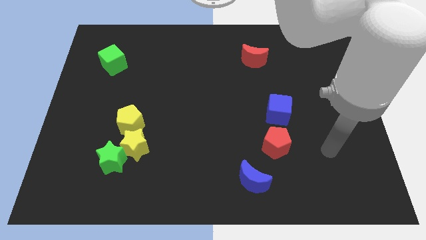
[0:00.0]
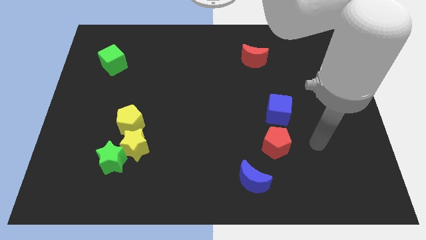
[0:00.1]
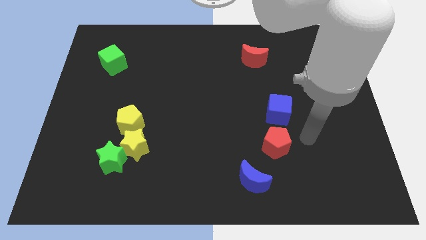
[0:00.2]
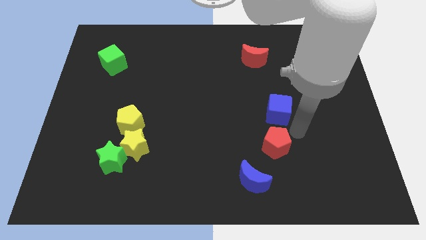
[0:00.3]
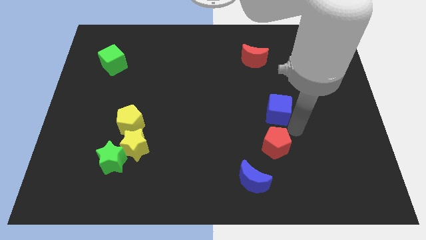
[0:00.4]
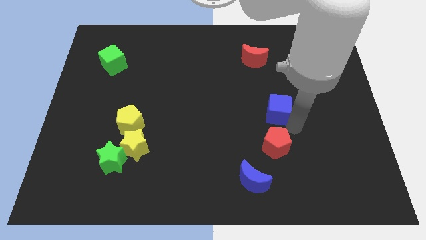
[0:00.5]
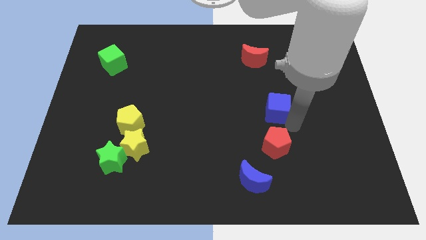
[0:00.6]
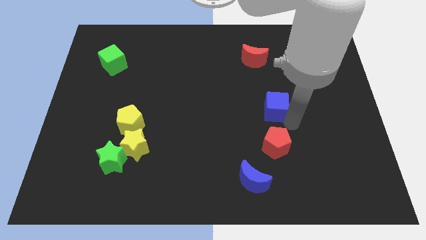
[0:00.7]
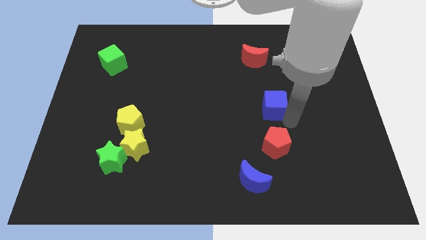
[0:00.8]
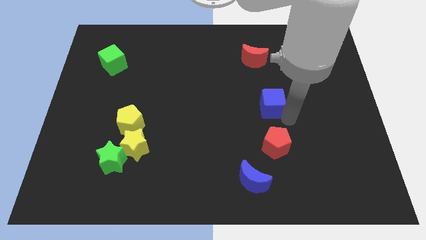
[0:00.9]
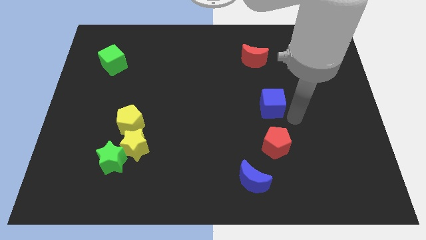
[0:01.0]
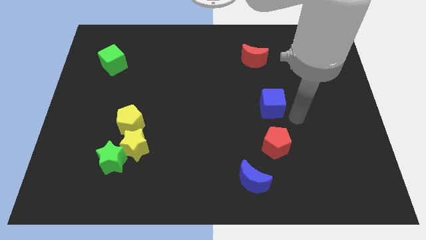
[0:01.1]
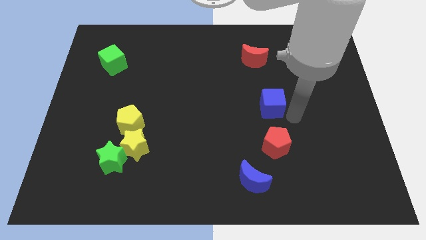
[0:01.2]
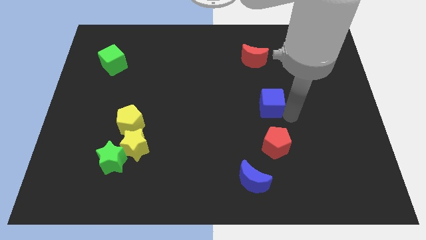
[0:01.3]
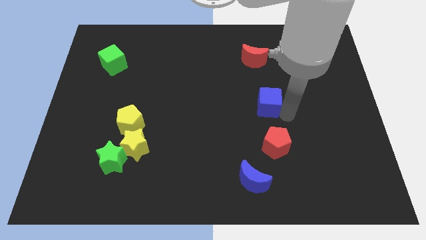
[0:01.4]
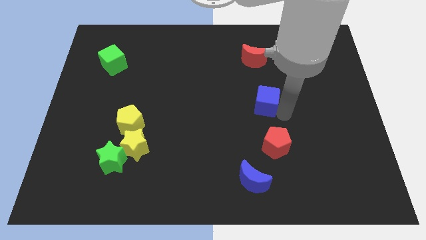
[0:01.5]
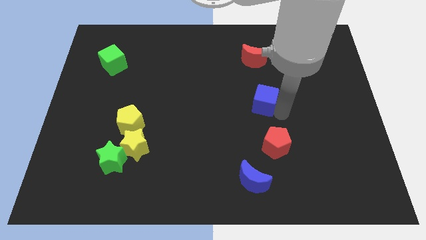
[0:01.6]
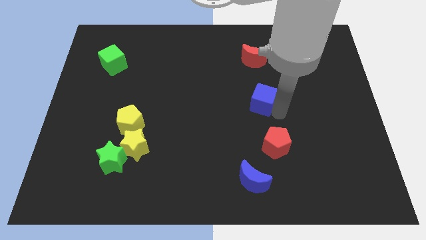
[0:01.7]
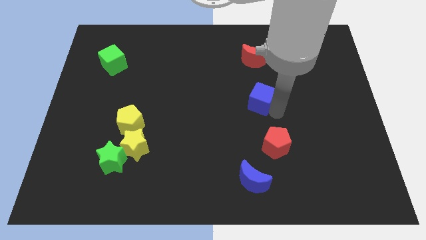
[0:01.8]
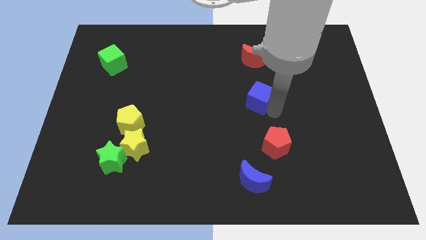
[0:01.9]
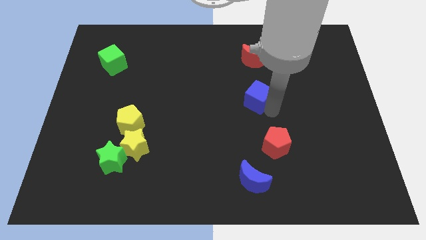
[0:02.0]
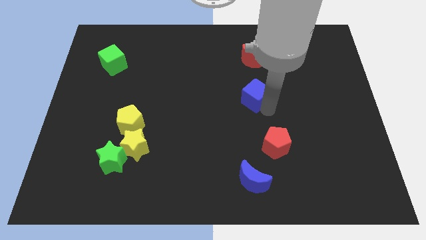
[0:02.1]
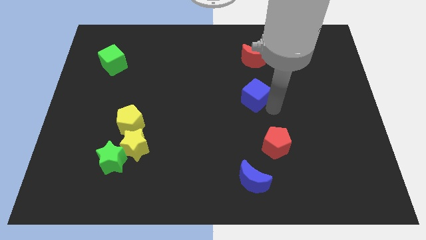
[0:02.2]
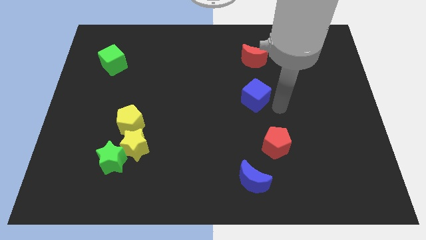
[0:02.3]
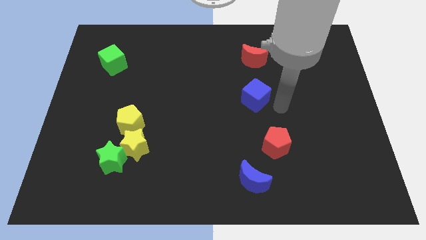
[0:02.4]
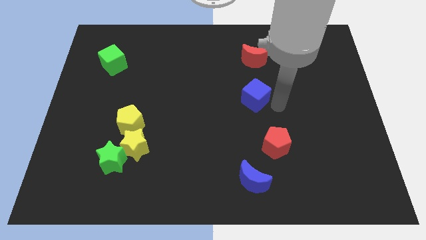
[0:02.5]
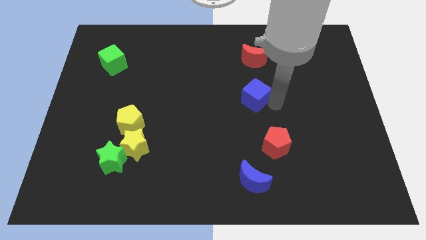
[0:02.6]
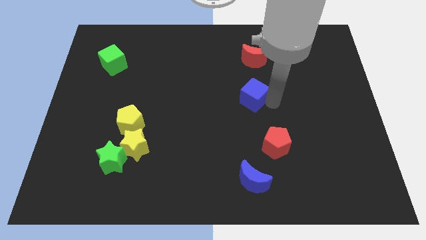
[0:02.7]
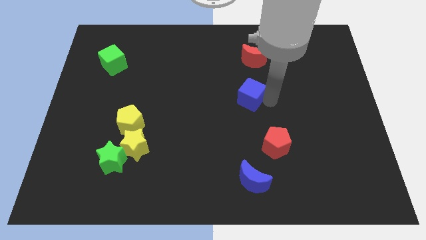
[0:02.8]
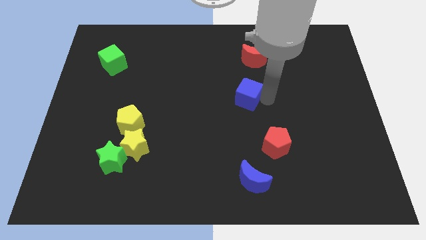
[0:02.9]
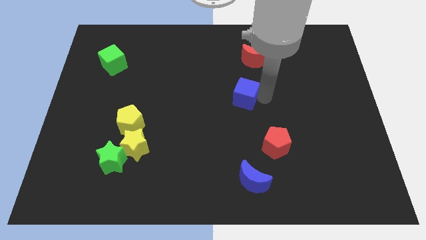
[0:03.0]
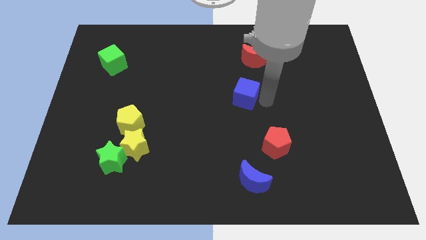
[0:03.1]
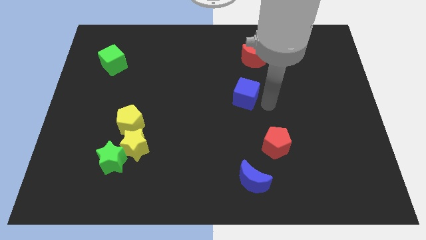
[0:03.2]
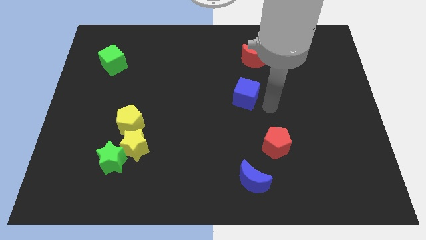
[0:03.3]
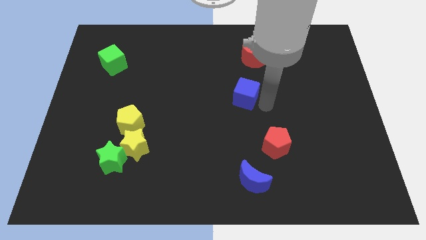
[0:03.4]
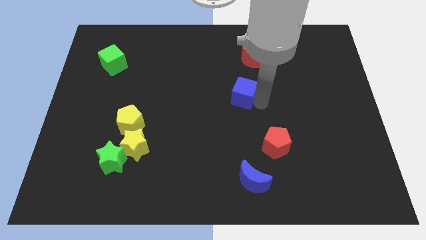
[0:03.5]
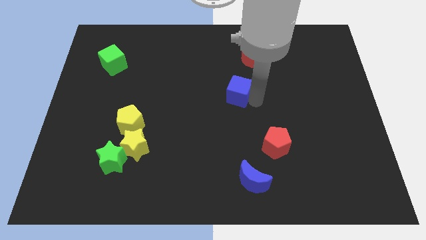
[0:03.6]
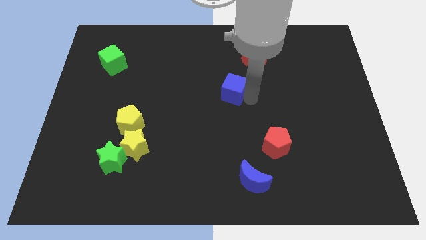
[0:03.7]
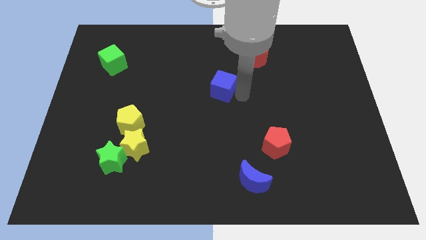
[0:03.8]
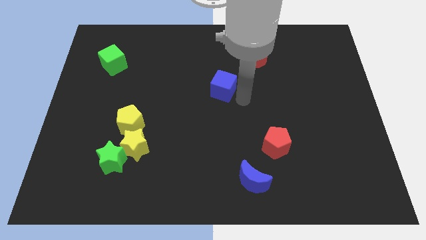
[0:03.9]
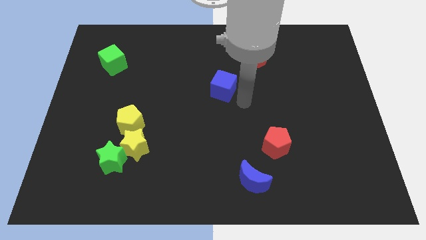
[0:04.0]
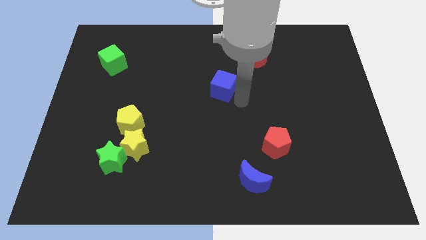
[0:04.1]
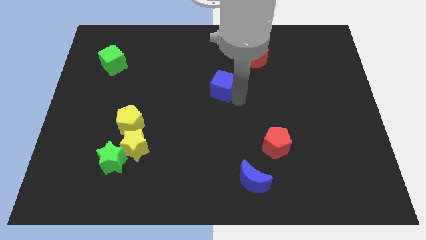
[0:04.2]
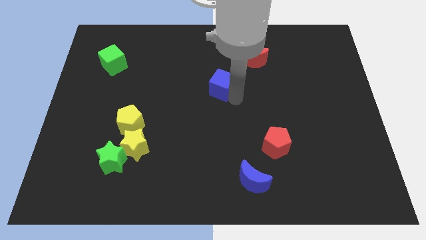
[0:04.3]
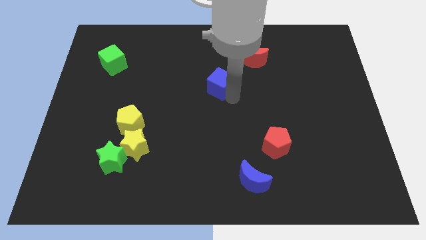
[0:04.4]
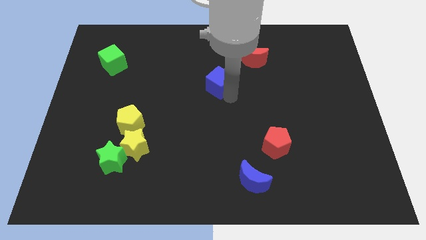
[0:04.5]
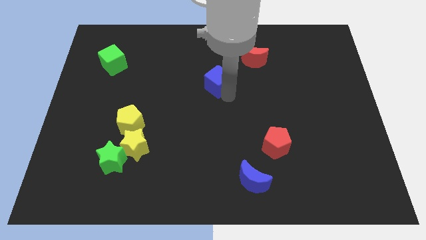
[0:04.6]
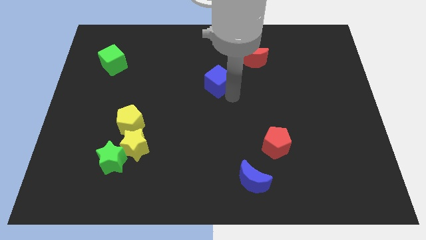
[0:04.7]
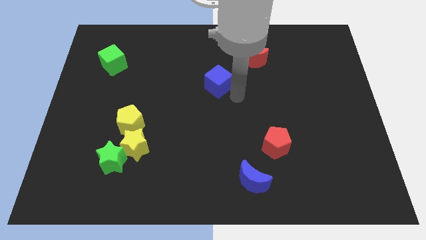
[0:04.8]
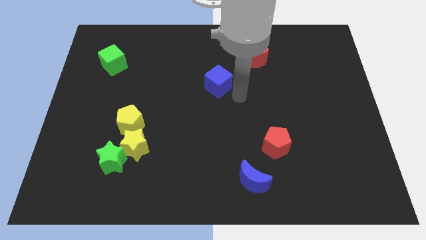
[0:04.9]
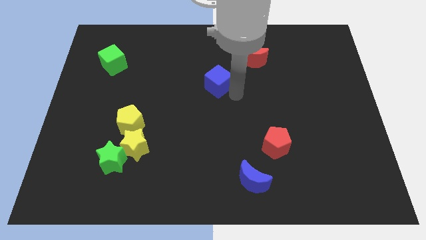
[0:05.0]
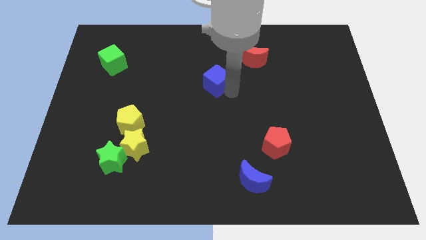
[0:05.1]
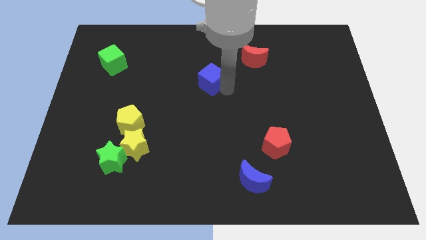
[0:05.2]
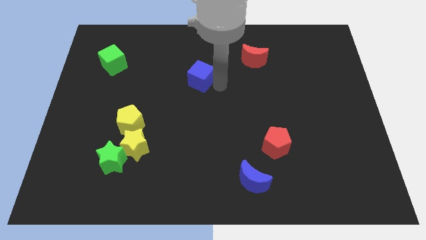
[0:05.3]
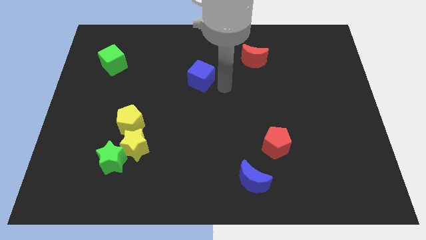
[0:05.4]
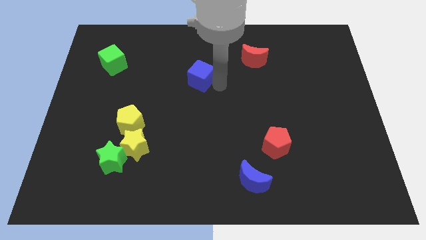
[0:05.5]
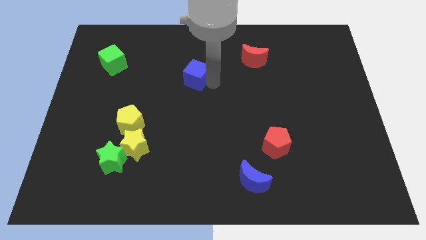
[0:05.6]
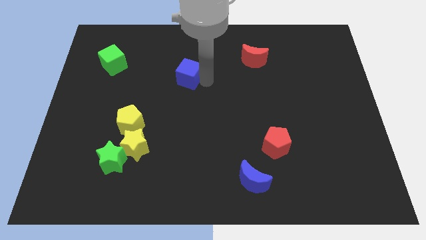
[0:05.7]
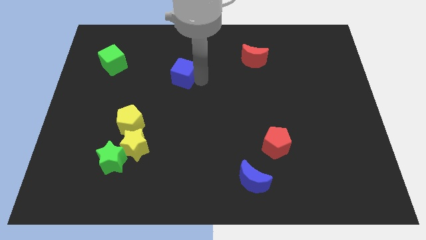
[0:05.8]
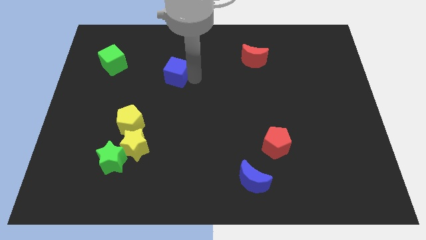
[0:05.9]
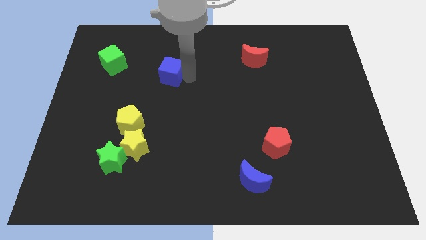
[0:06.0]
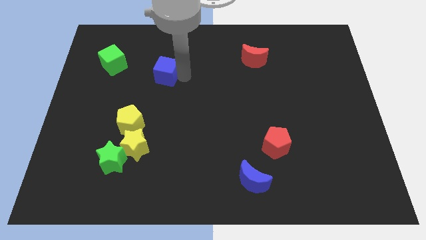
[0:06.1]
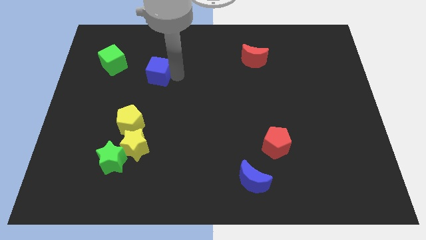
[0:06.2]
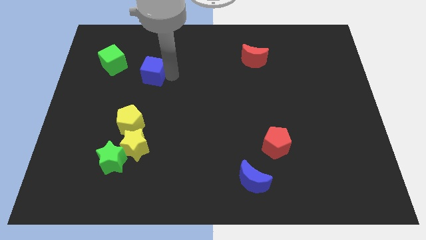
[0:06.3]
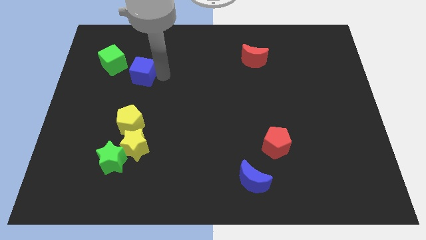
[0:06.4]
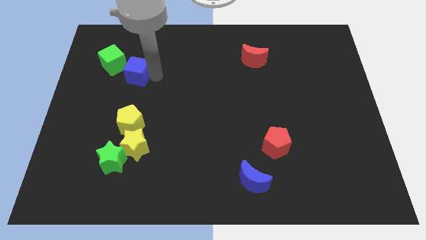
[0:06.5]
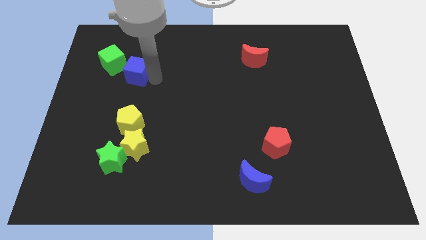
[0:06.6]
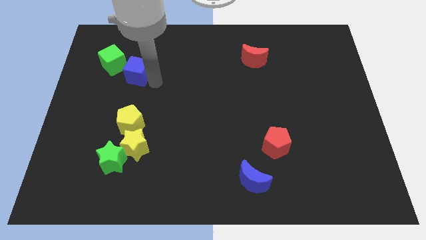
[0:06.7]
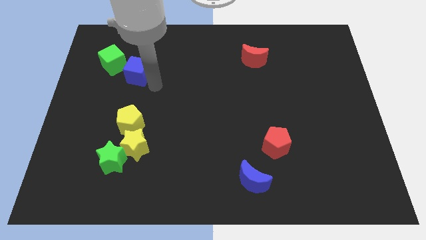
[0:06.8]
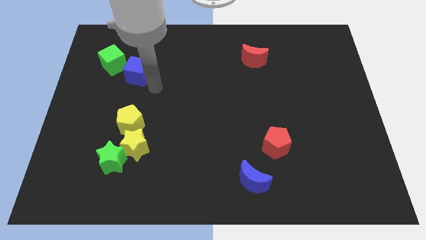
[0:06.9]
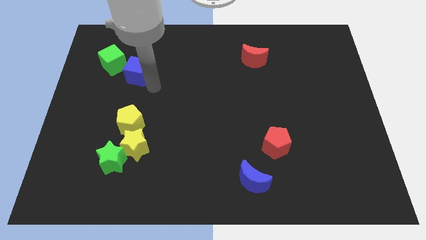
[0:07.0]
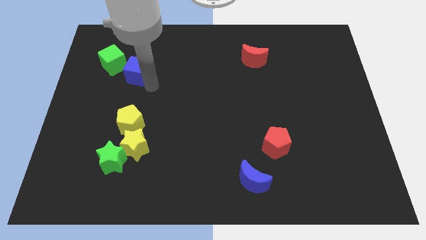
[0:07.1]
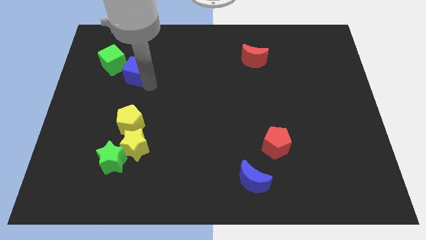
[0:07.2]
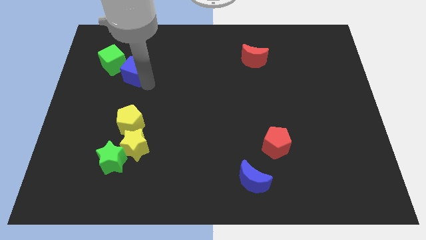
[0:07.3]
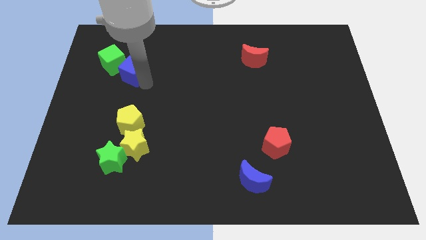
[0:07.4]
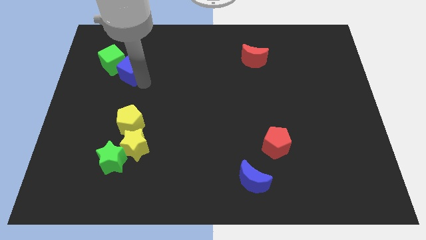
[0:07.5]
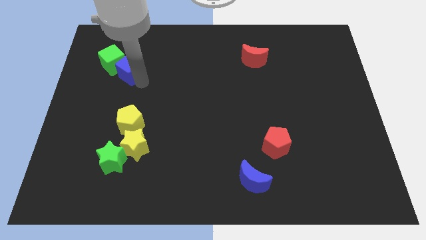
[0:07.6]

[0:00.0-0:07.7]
move the blue cube next to the green cube
